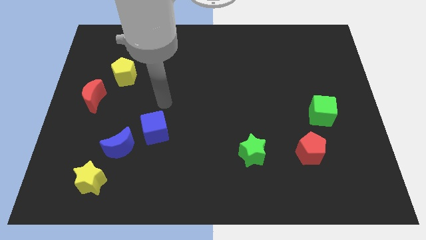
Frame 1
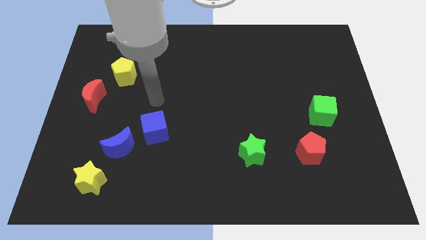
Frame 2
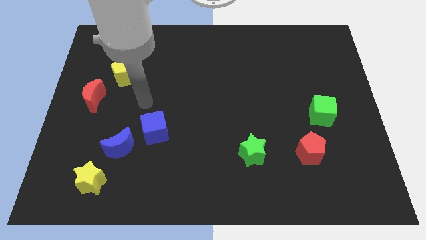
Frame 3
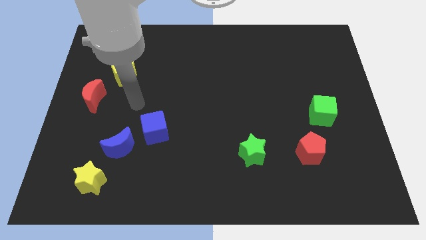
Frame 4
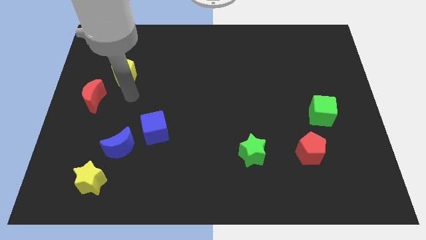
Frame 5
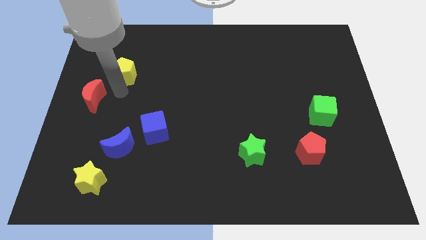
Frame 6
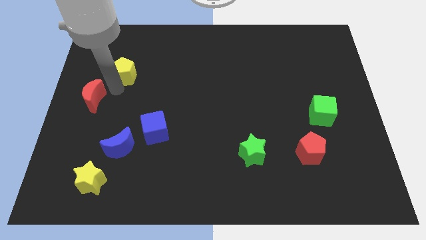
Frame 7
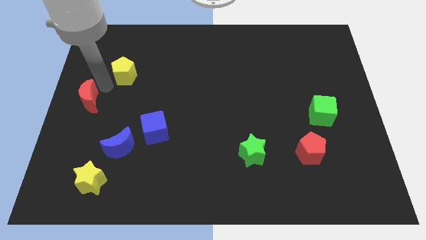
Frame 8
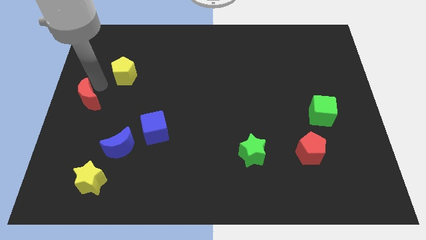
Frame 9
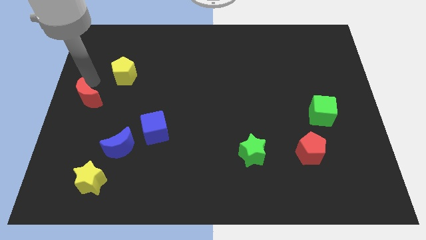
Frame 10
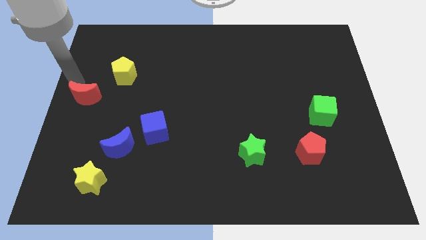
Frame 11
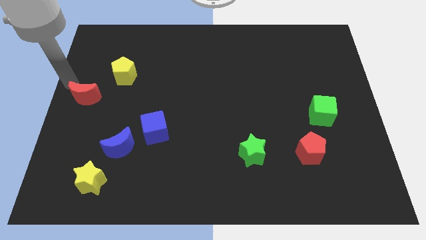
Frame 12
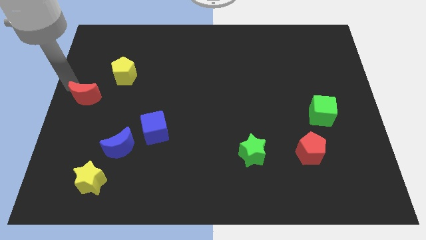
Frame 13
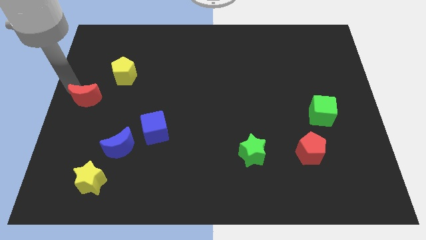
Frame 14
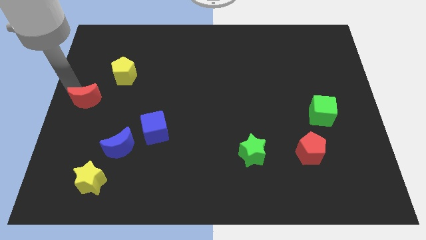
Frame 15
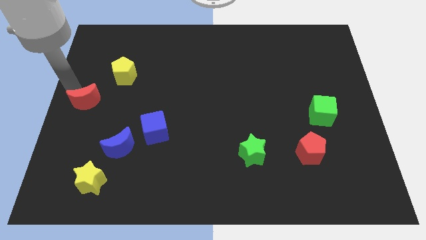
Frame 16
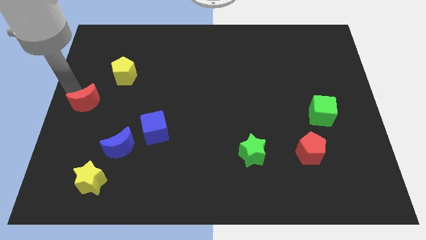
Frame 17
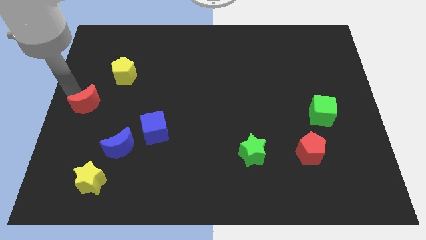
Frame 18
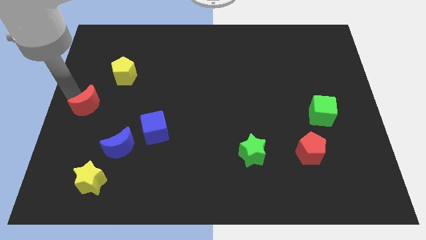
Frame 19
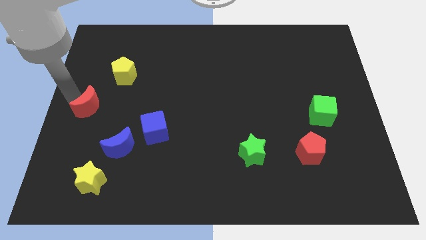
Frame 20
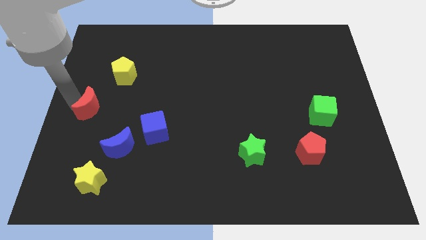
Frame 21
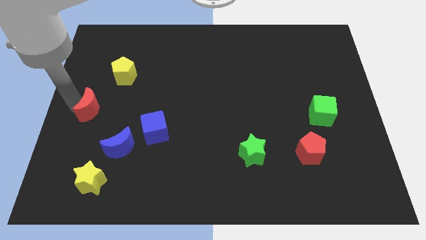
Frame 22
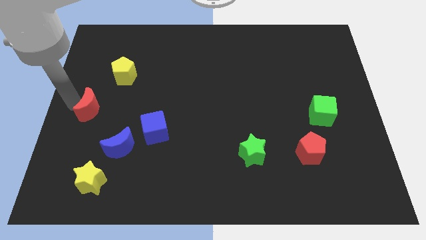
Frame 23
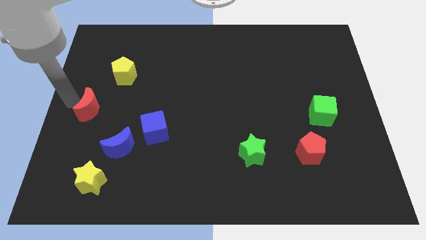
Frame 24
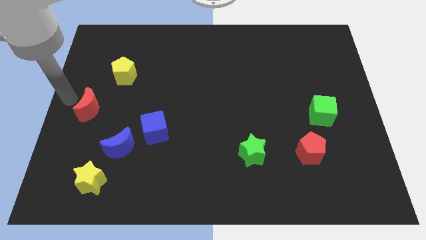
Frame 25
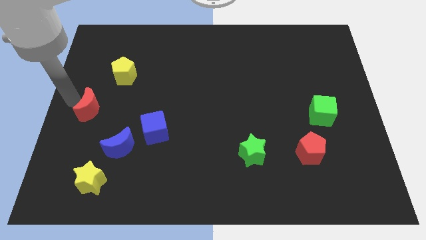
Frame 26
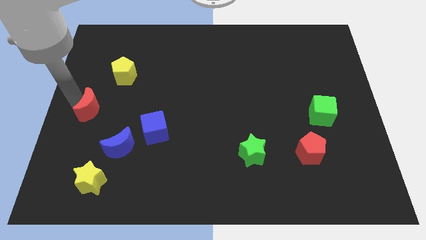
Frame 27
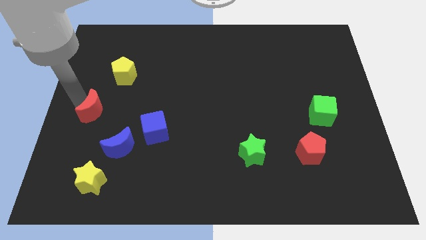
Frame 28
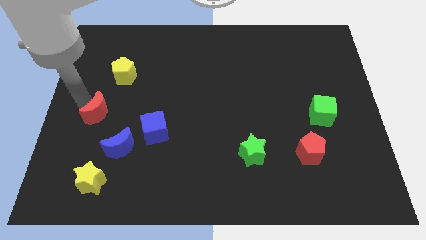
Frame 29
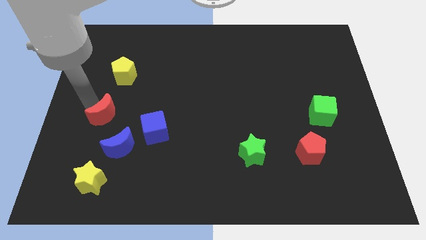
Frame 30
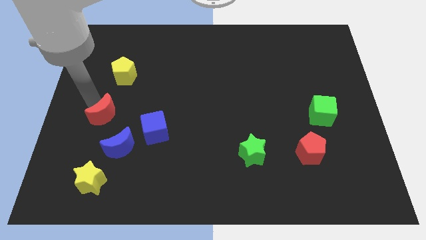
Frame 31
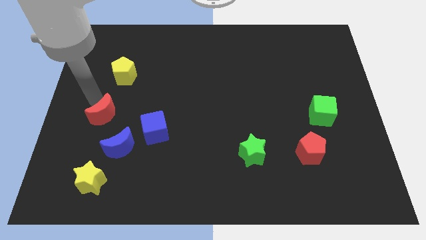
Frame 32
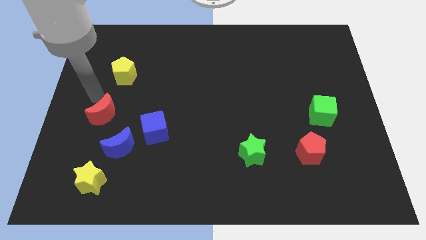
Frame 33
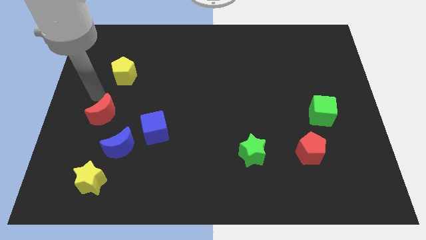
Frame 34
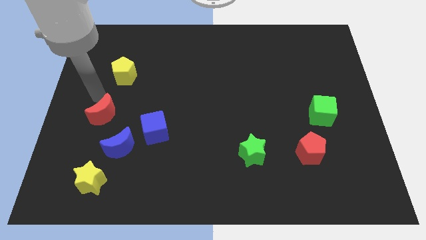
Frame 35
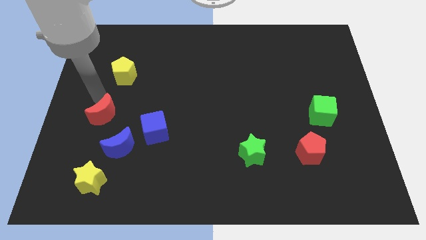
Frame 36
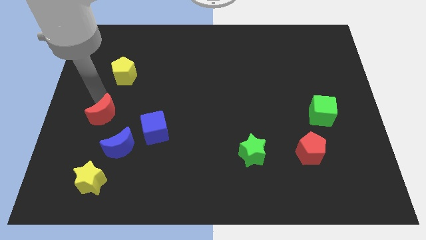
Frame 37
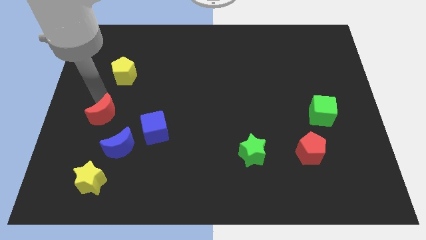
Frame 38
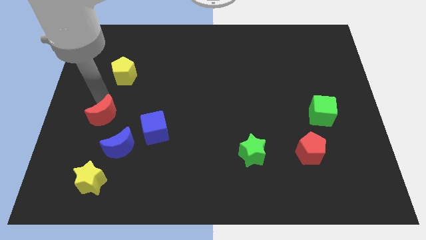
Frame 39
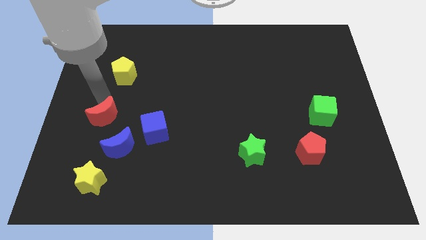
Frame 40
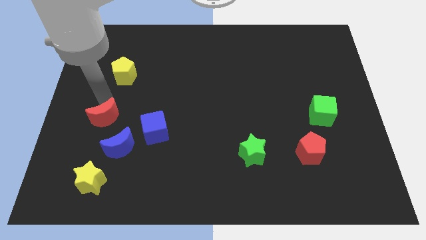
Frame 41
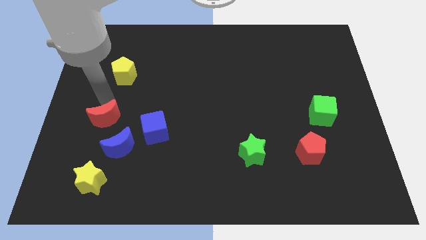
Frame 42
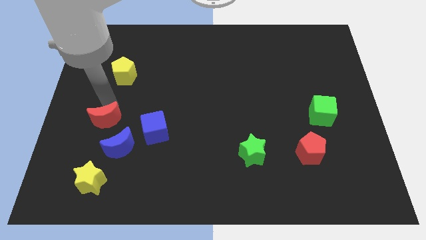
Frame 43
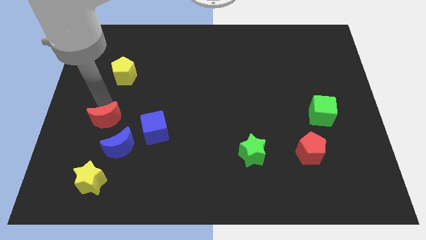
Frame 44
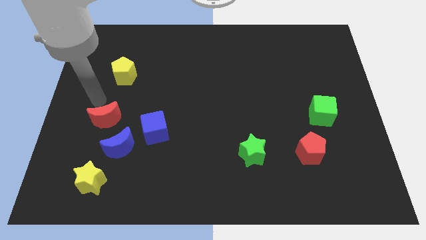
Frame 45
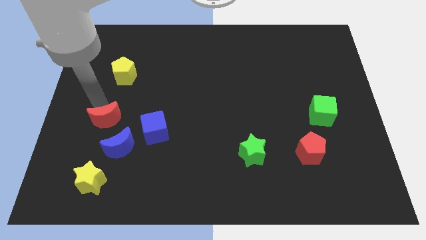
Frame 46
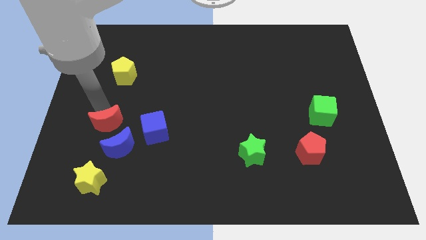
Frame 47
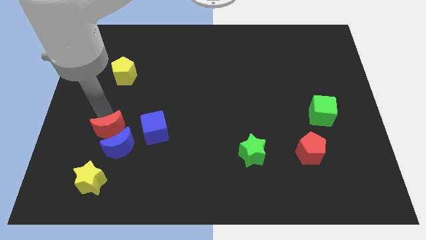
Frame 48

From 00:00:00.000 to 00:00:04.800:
put the red moon to the blue moon

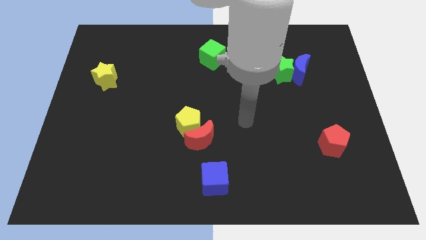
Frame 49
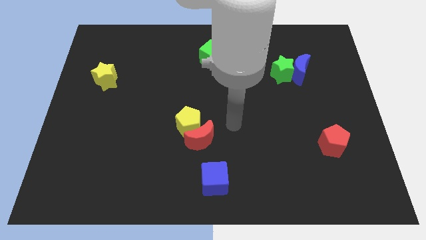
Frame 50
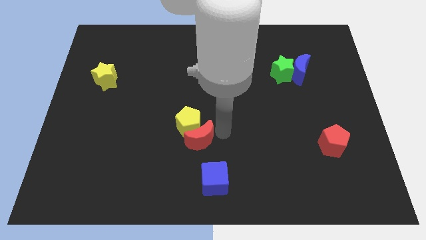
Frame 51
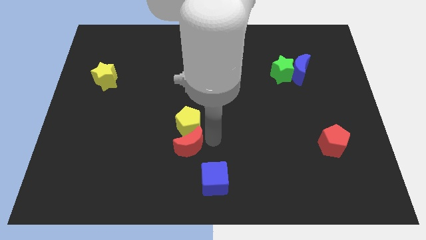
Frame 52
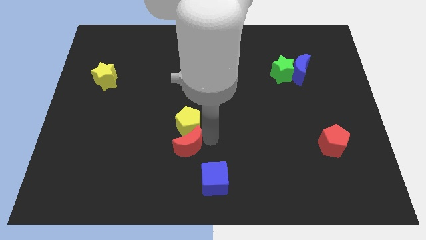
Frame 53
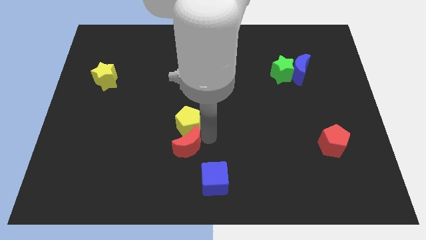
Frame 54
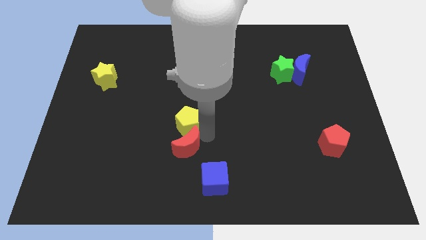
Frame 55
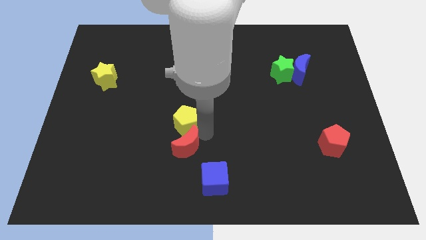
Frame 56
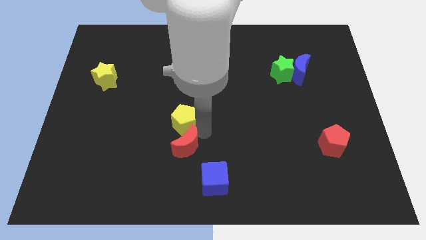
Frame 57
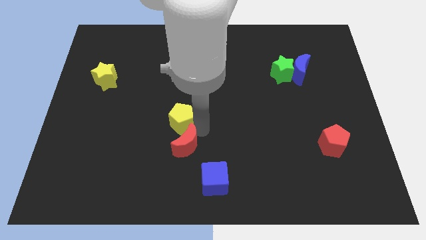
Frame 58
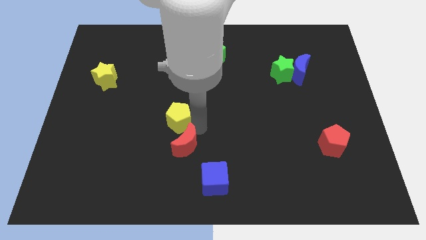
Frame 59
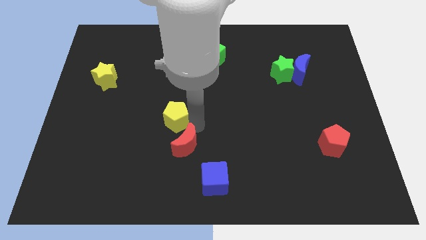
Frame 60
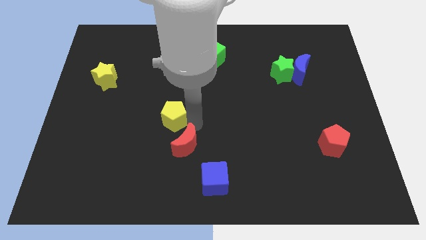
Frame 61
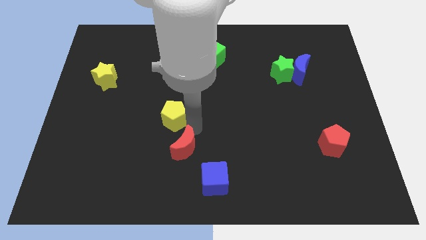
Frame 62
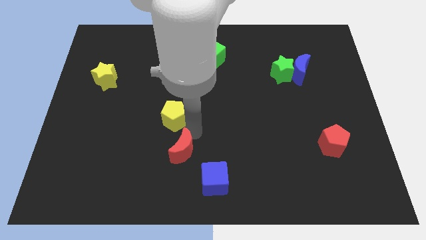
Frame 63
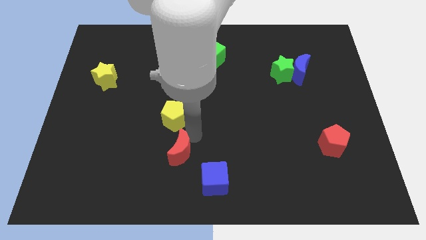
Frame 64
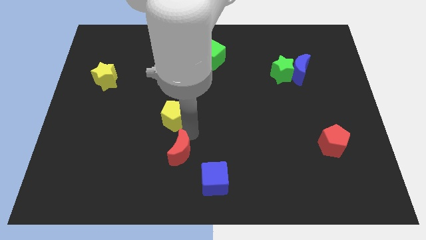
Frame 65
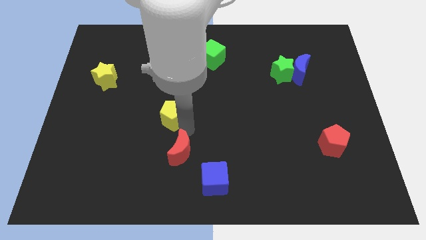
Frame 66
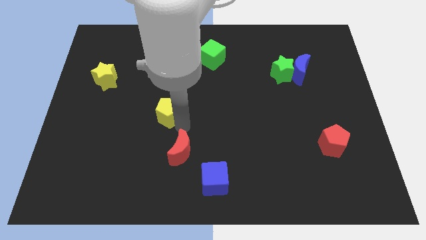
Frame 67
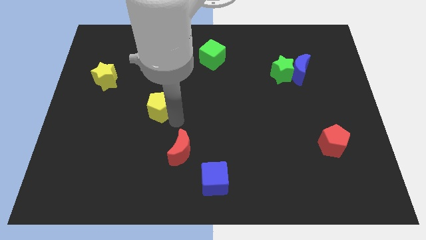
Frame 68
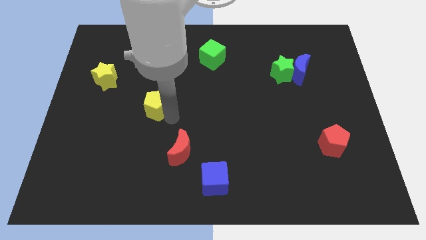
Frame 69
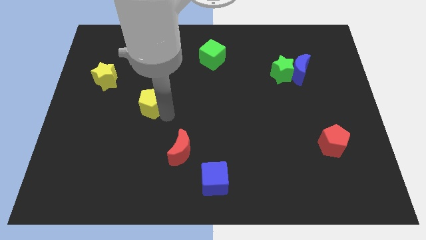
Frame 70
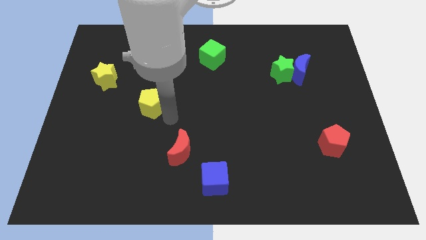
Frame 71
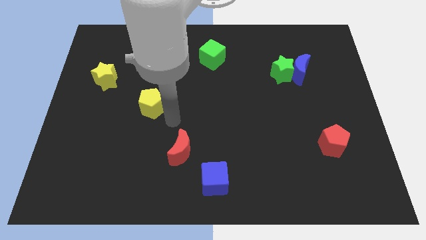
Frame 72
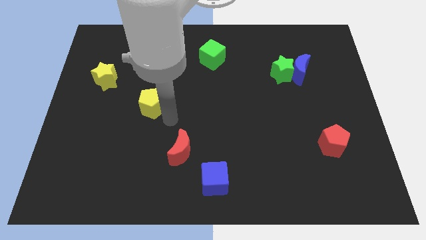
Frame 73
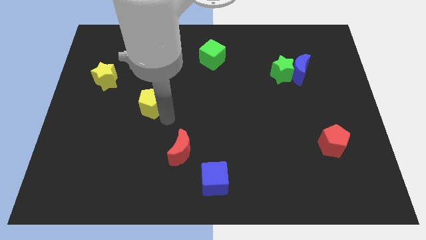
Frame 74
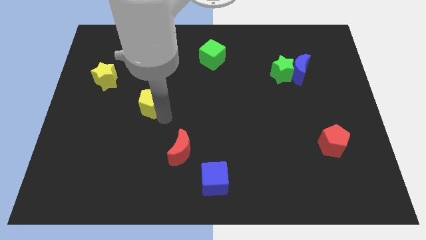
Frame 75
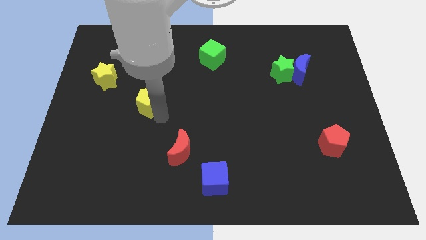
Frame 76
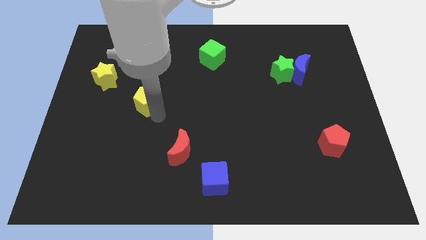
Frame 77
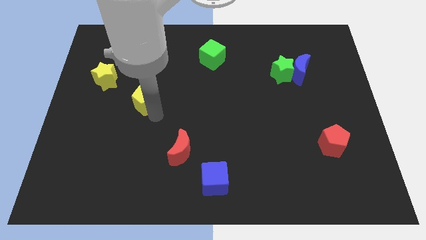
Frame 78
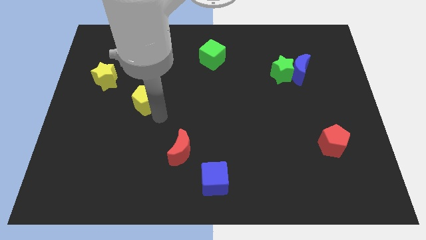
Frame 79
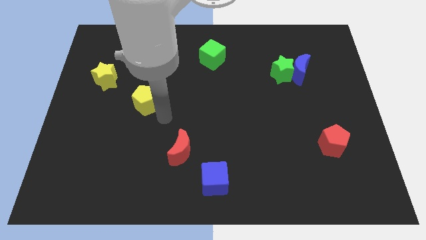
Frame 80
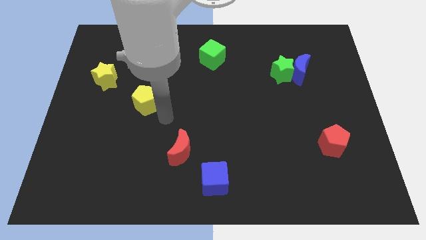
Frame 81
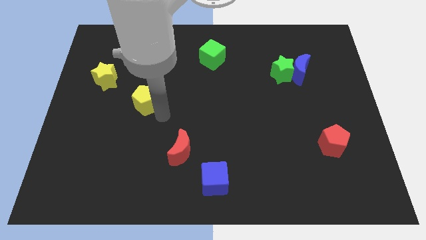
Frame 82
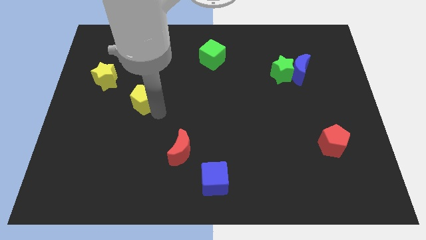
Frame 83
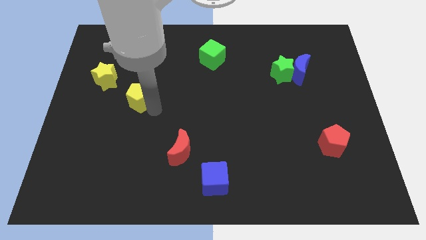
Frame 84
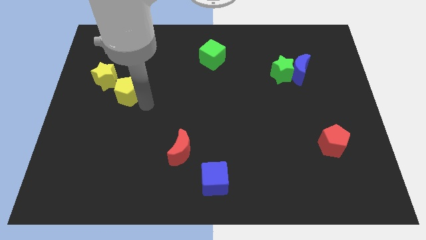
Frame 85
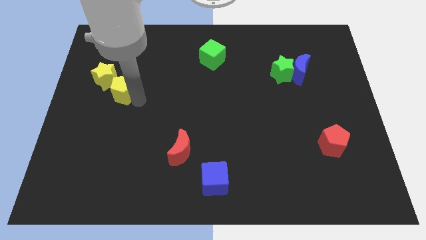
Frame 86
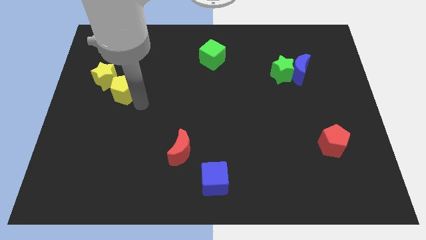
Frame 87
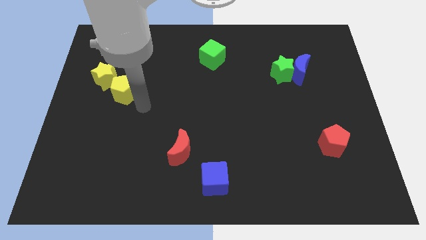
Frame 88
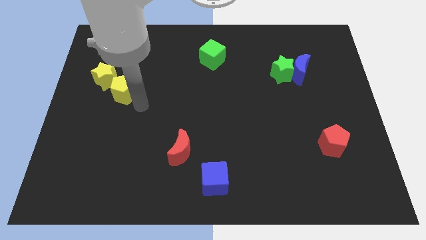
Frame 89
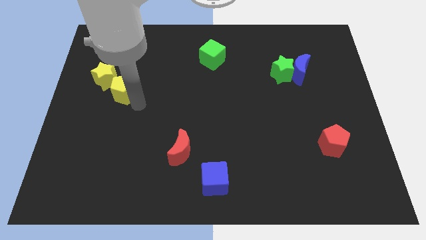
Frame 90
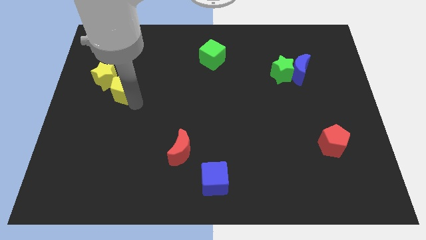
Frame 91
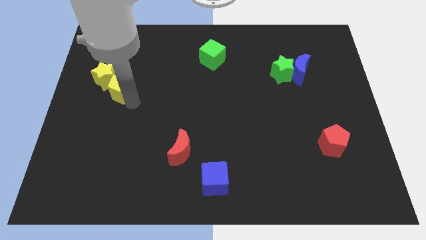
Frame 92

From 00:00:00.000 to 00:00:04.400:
put the yellow pentagon to the yellow star
